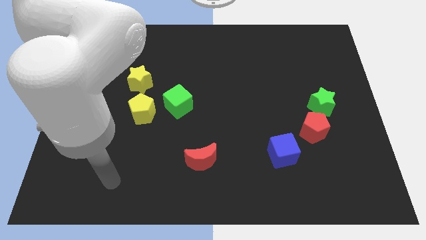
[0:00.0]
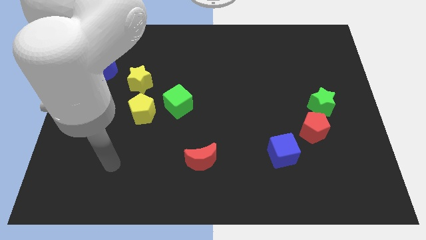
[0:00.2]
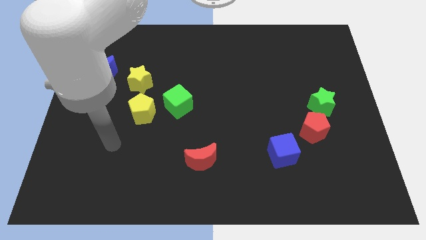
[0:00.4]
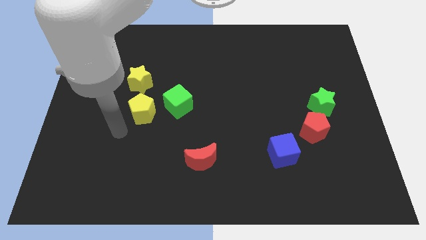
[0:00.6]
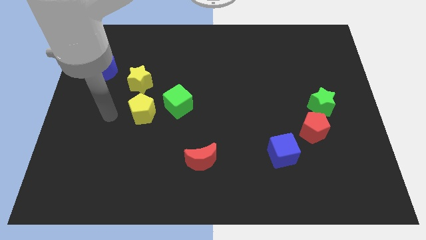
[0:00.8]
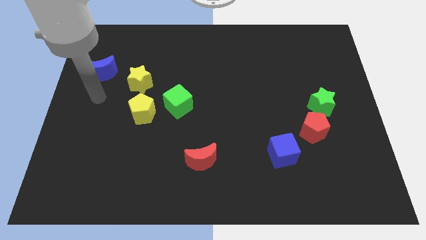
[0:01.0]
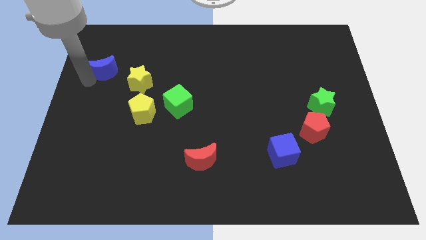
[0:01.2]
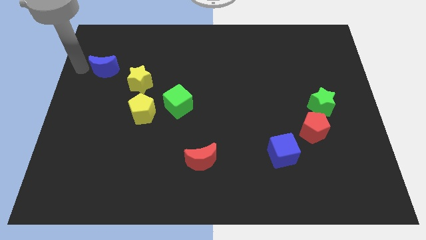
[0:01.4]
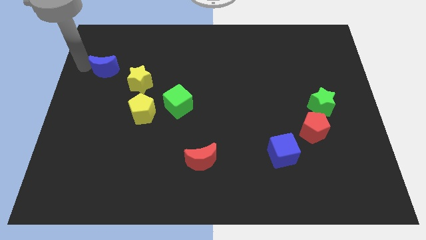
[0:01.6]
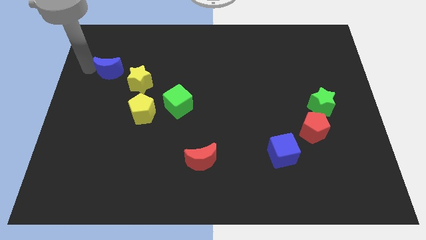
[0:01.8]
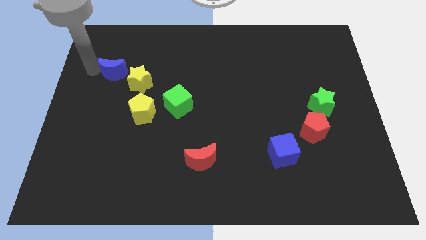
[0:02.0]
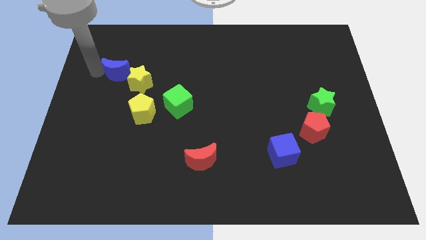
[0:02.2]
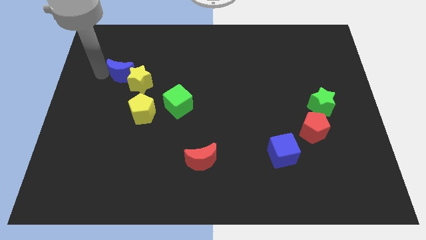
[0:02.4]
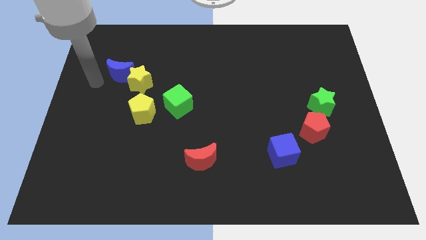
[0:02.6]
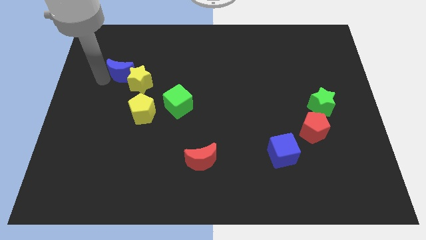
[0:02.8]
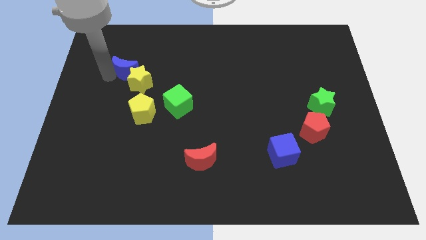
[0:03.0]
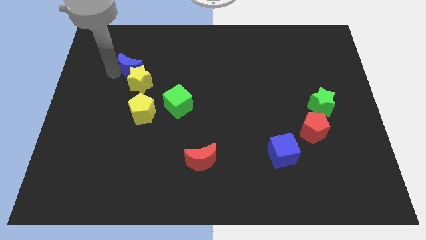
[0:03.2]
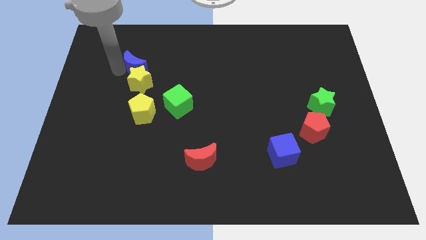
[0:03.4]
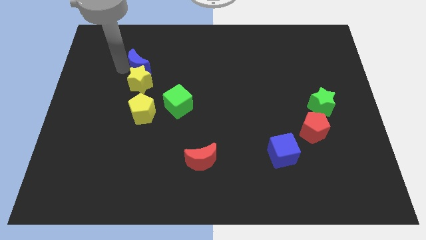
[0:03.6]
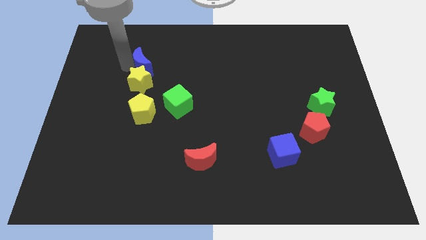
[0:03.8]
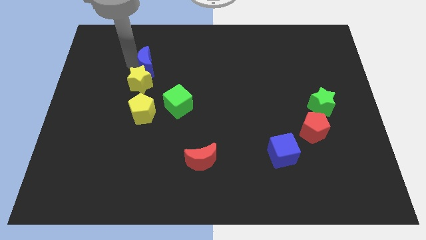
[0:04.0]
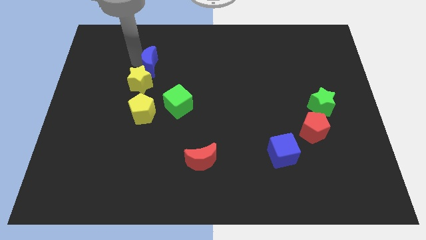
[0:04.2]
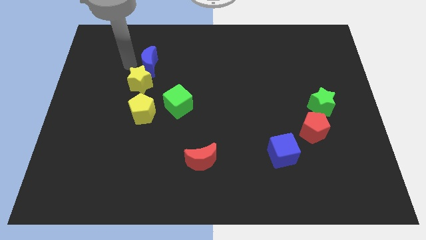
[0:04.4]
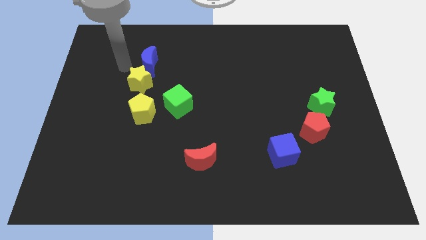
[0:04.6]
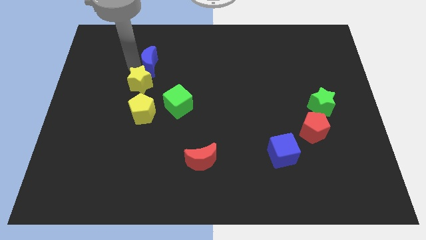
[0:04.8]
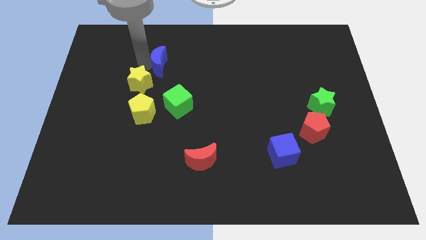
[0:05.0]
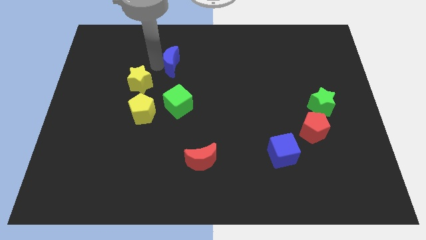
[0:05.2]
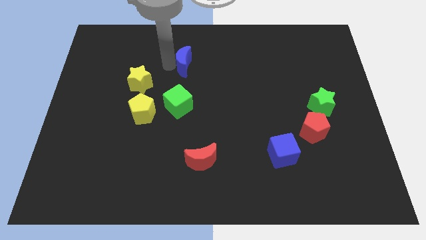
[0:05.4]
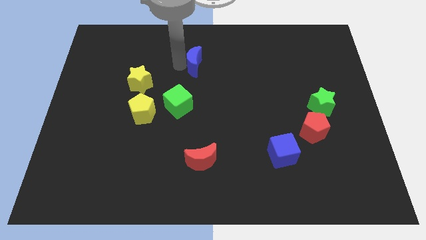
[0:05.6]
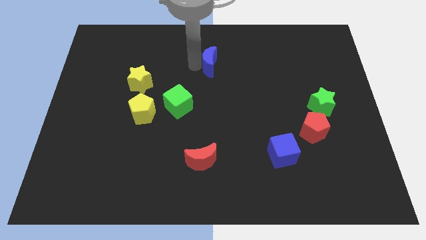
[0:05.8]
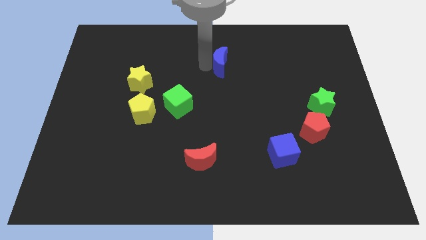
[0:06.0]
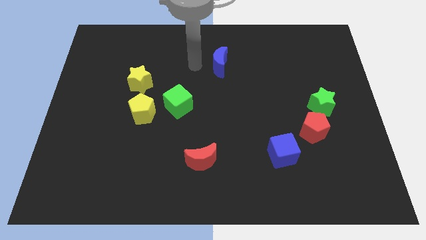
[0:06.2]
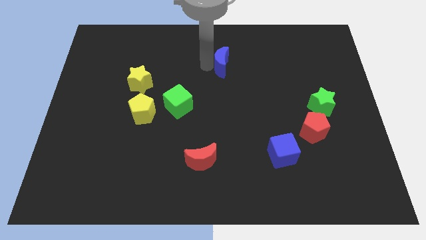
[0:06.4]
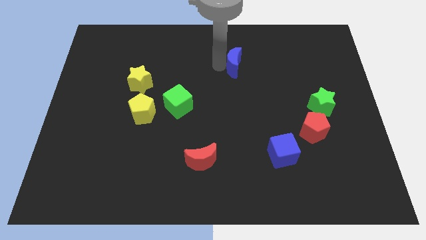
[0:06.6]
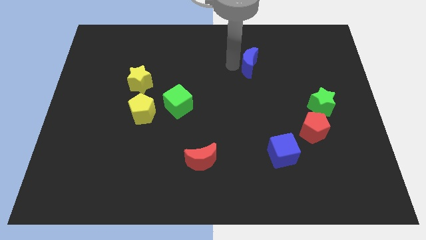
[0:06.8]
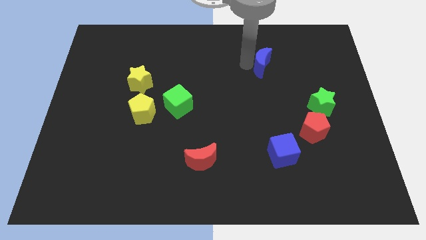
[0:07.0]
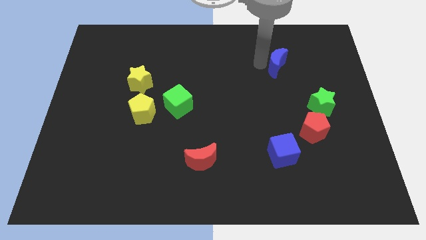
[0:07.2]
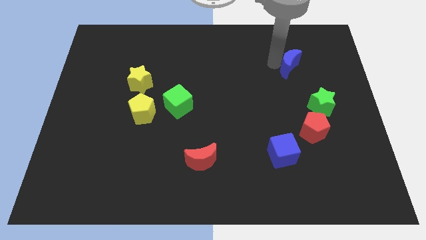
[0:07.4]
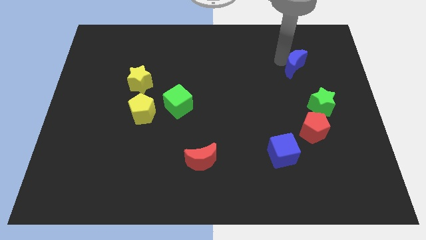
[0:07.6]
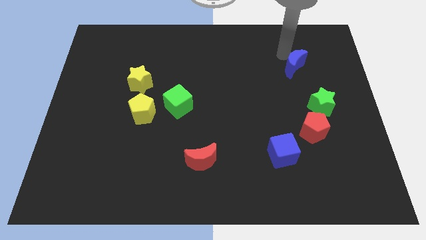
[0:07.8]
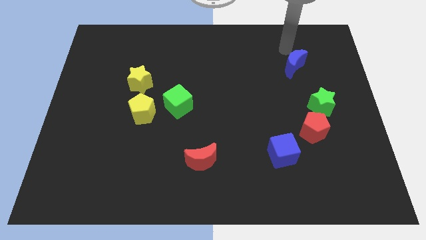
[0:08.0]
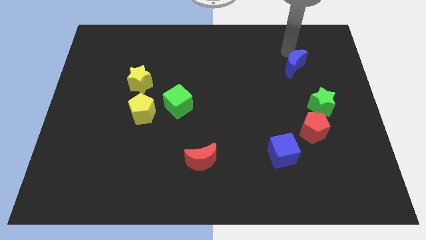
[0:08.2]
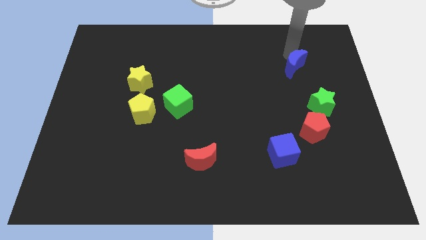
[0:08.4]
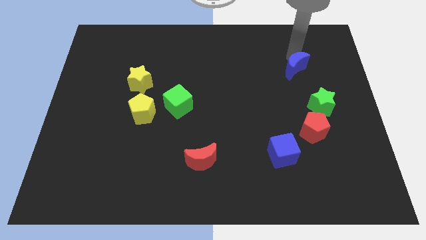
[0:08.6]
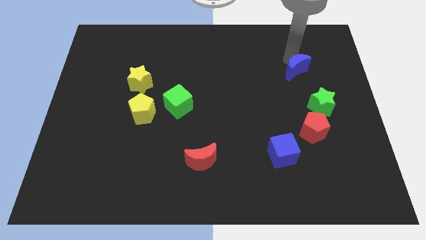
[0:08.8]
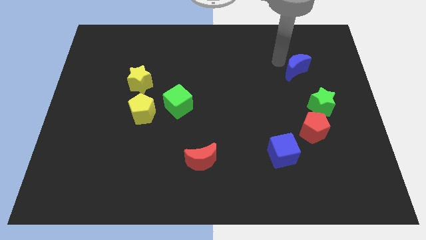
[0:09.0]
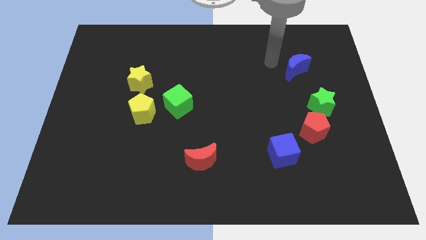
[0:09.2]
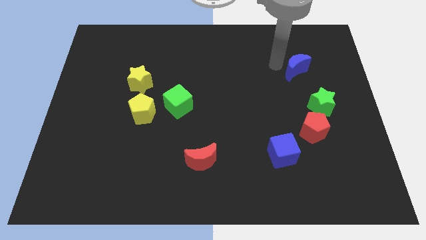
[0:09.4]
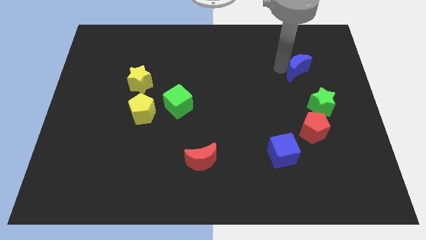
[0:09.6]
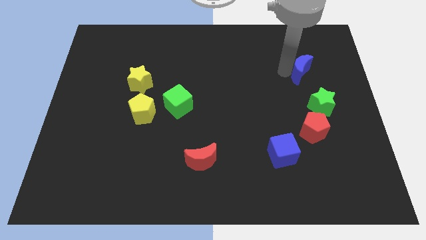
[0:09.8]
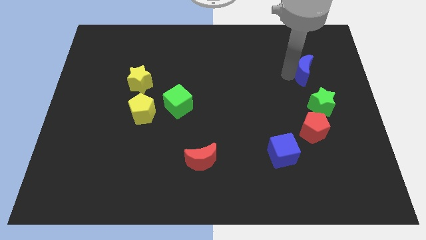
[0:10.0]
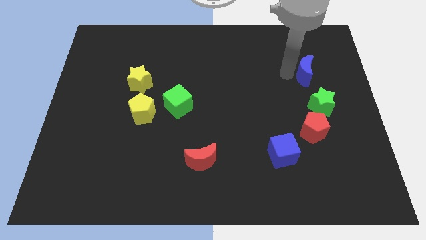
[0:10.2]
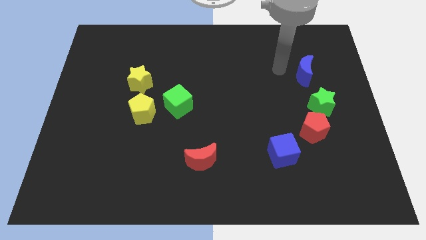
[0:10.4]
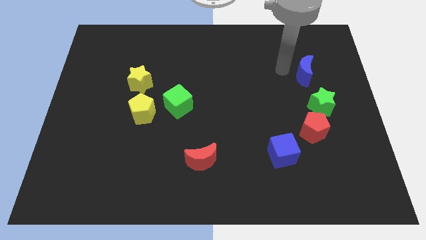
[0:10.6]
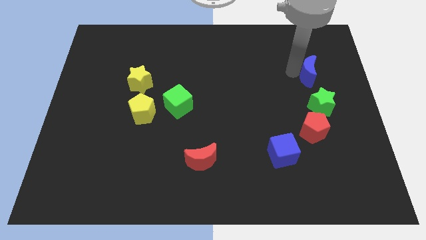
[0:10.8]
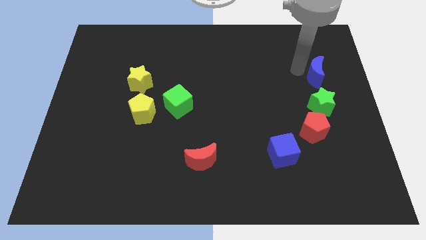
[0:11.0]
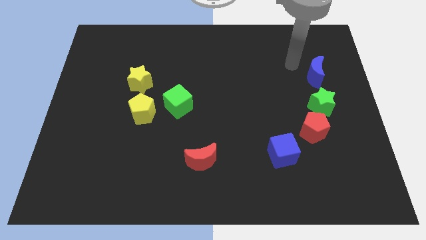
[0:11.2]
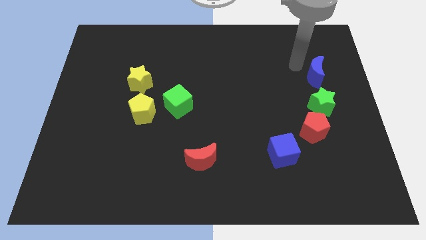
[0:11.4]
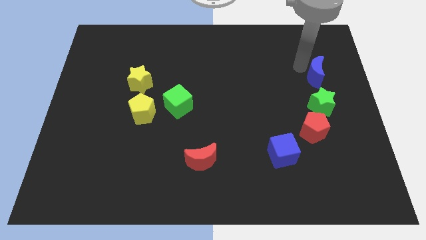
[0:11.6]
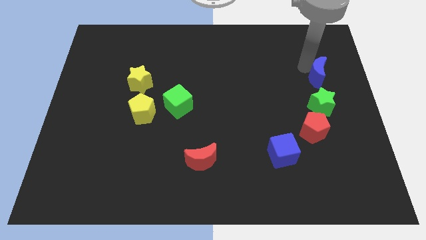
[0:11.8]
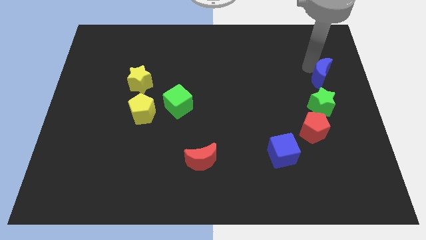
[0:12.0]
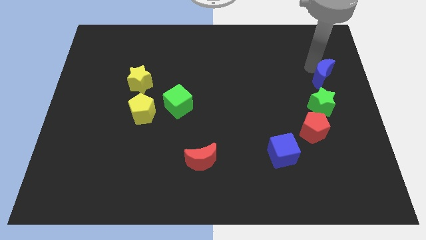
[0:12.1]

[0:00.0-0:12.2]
put the blue moon to the right side of the board

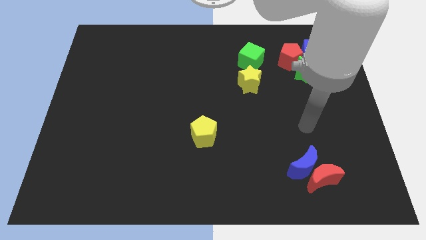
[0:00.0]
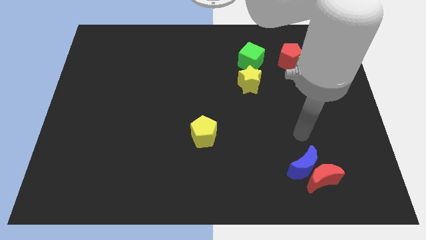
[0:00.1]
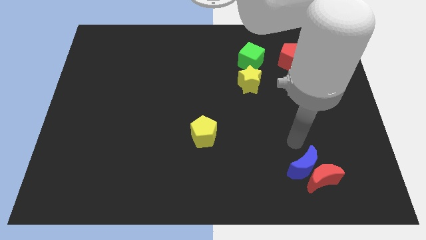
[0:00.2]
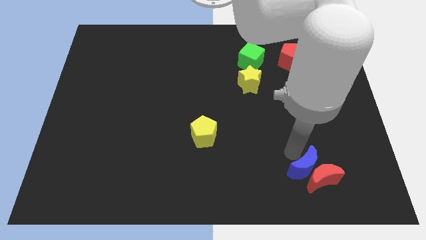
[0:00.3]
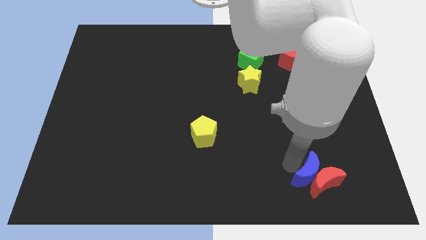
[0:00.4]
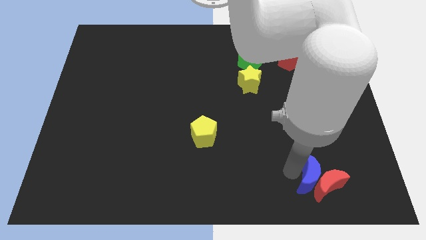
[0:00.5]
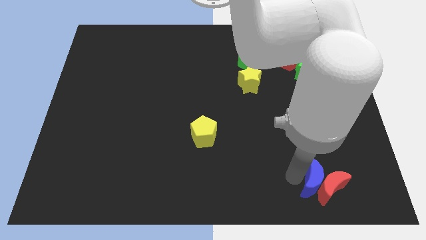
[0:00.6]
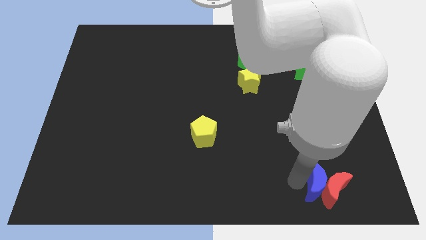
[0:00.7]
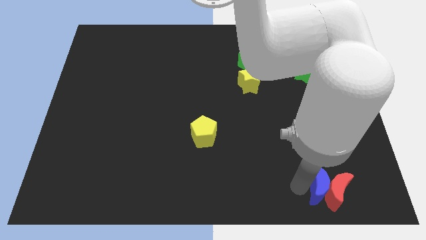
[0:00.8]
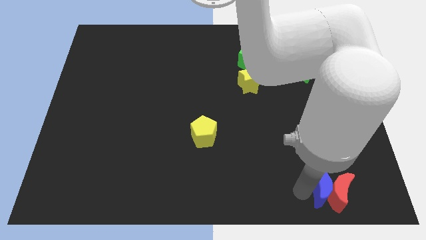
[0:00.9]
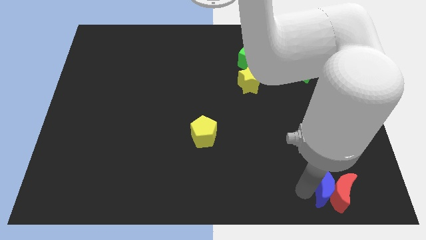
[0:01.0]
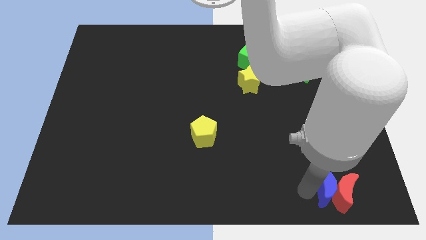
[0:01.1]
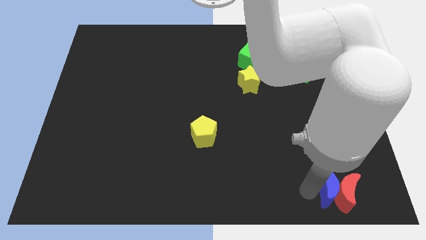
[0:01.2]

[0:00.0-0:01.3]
move the red moon to the bottom right of the board
